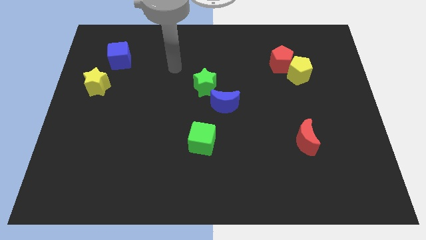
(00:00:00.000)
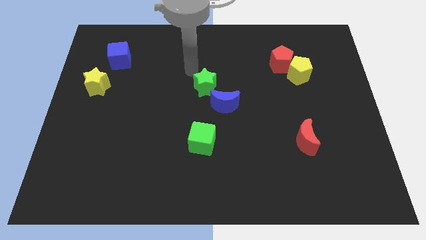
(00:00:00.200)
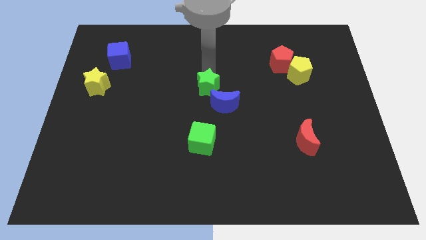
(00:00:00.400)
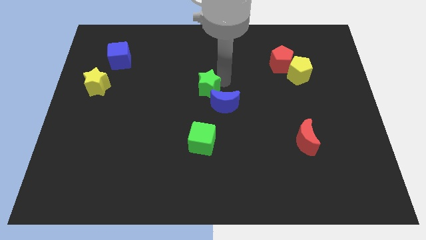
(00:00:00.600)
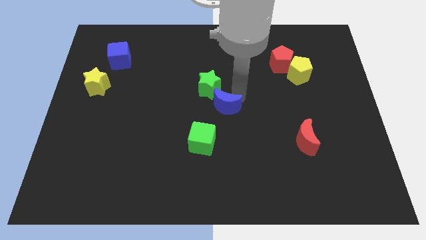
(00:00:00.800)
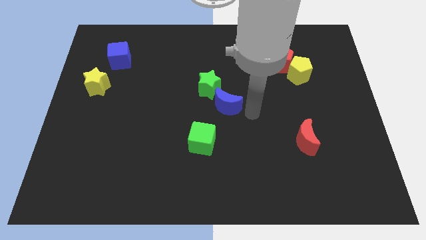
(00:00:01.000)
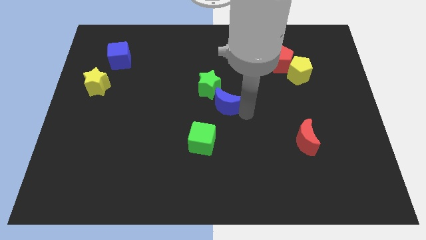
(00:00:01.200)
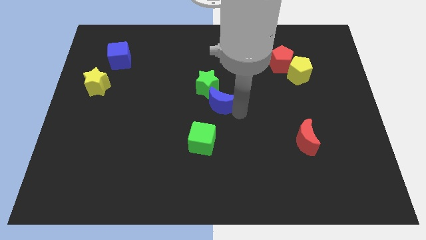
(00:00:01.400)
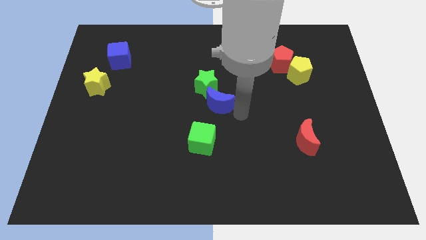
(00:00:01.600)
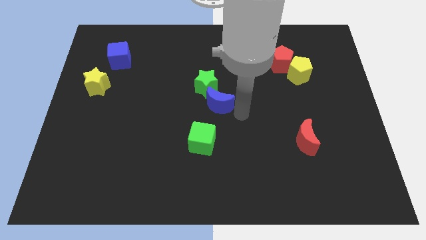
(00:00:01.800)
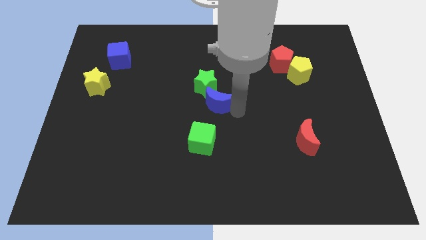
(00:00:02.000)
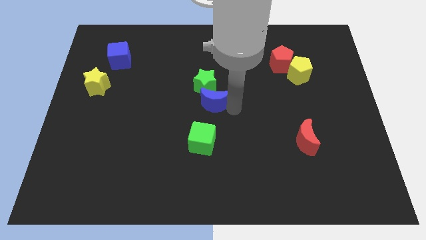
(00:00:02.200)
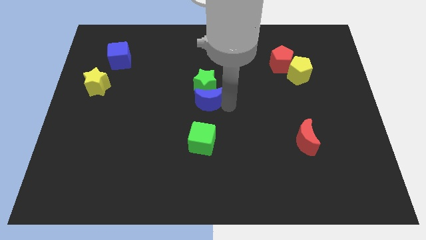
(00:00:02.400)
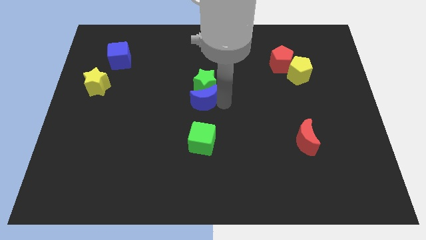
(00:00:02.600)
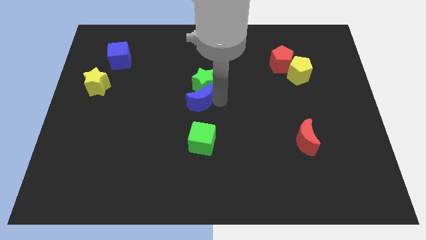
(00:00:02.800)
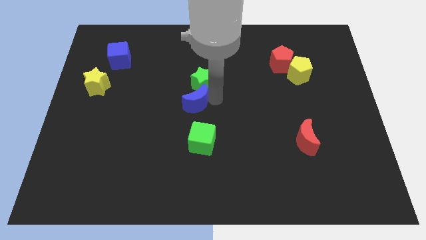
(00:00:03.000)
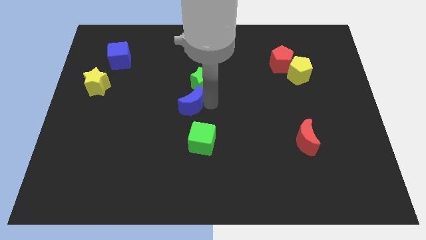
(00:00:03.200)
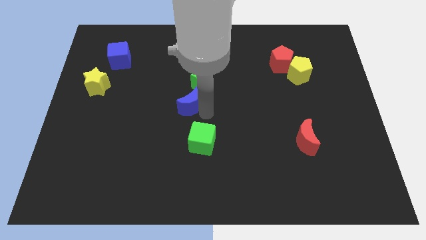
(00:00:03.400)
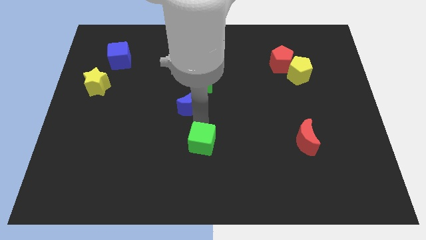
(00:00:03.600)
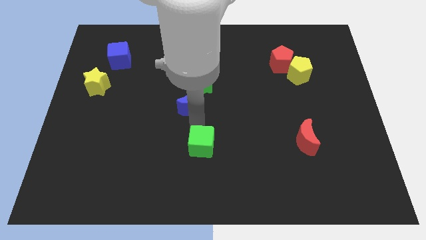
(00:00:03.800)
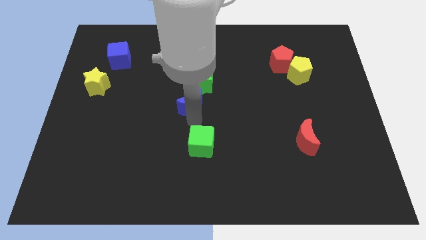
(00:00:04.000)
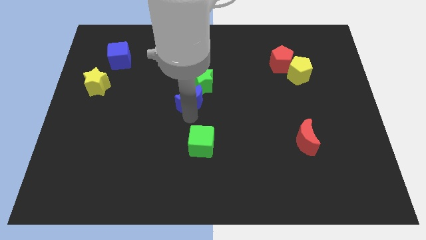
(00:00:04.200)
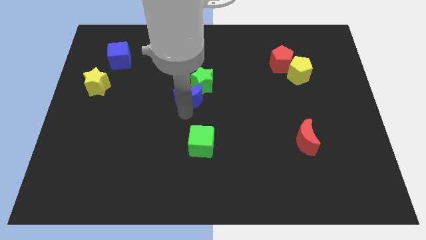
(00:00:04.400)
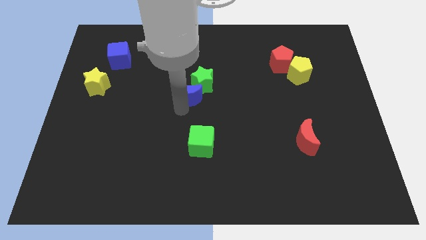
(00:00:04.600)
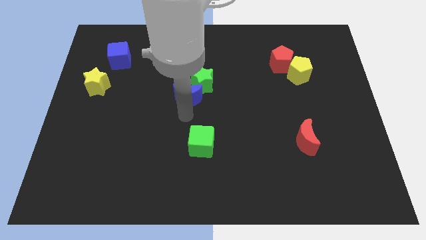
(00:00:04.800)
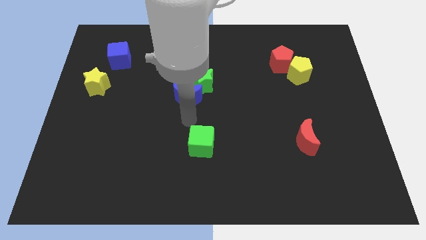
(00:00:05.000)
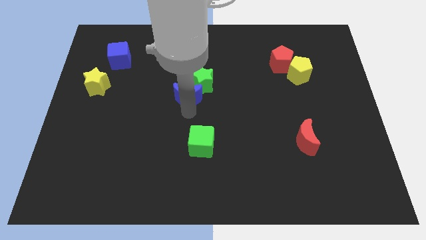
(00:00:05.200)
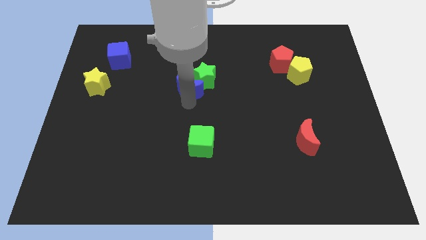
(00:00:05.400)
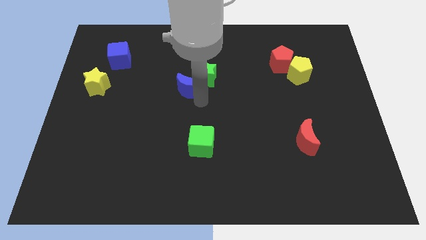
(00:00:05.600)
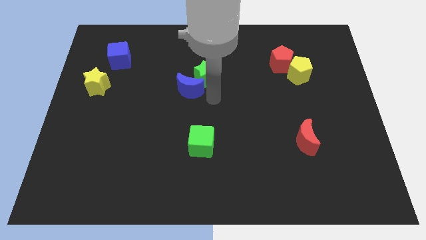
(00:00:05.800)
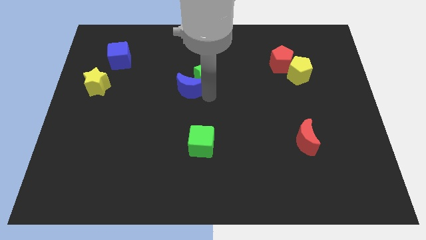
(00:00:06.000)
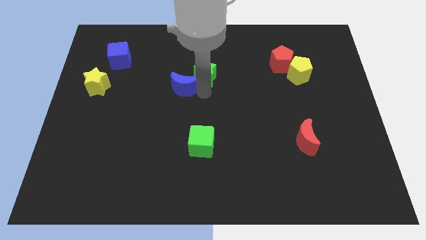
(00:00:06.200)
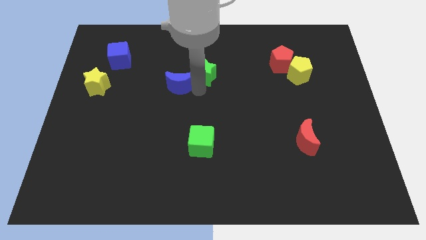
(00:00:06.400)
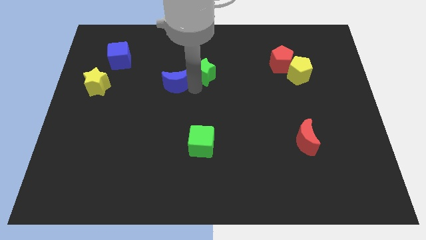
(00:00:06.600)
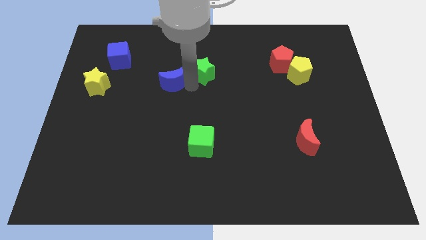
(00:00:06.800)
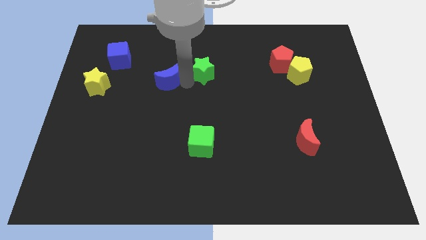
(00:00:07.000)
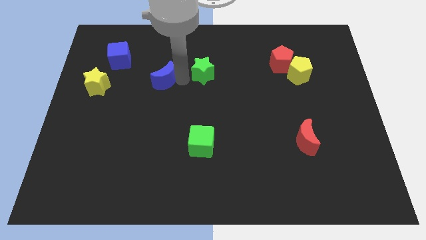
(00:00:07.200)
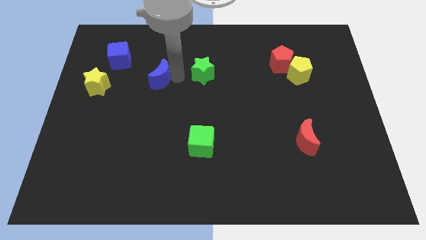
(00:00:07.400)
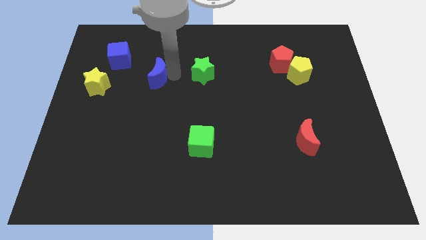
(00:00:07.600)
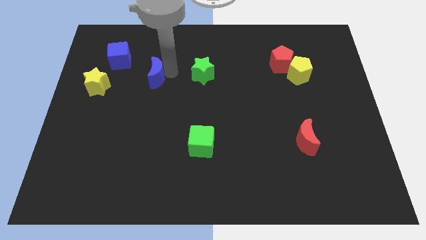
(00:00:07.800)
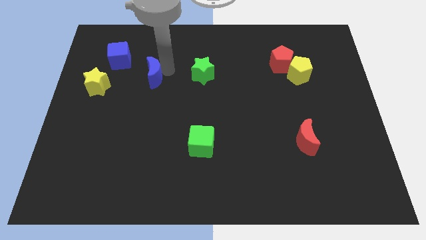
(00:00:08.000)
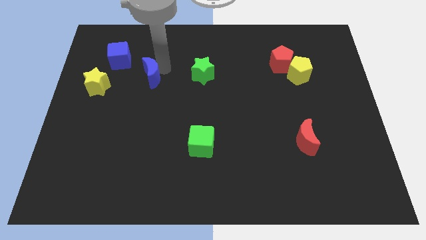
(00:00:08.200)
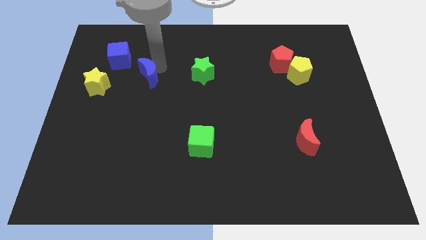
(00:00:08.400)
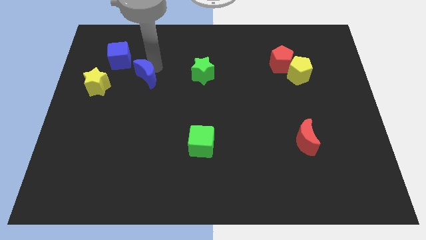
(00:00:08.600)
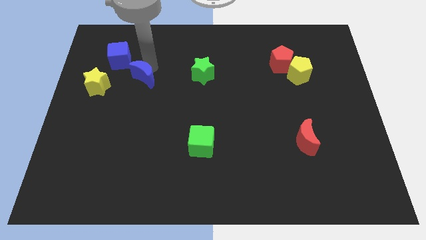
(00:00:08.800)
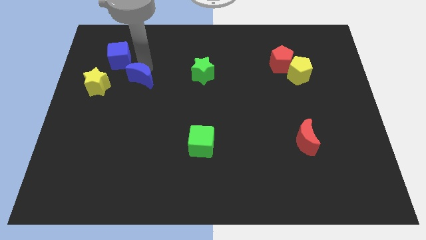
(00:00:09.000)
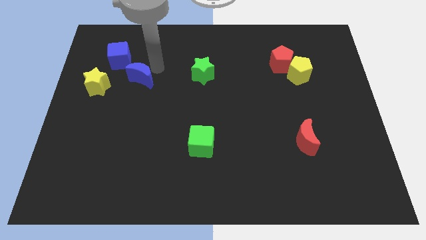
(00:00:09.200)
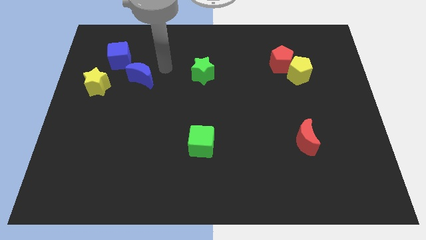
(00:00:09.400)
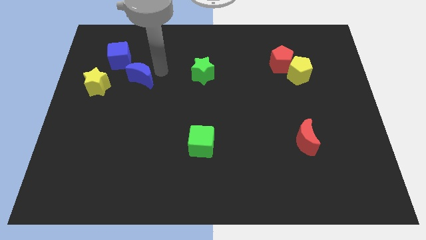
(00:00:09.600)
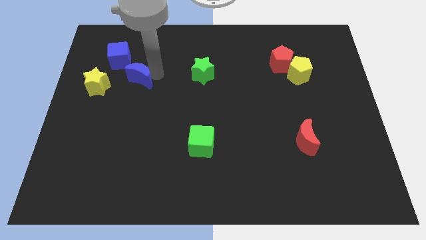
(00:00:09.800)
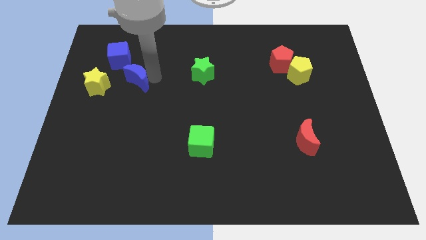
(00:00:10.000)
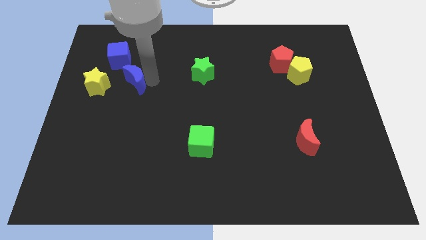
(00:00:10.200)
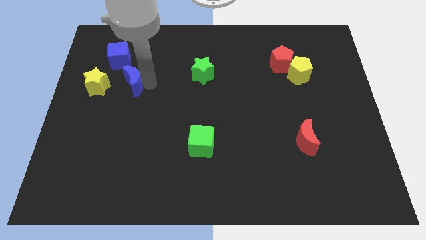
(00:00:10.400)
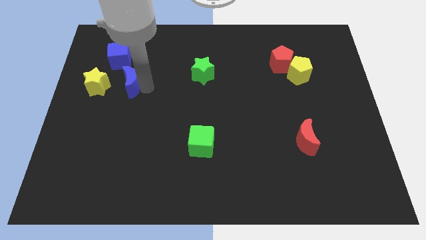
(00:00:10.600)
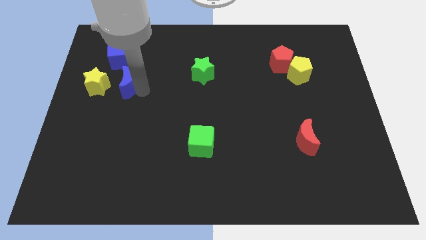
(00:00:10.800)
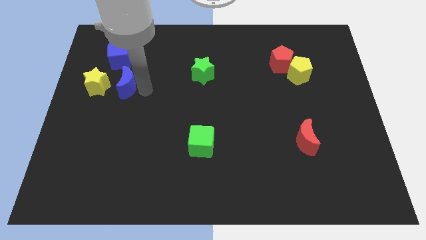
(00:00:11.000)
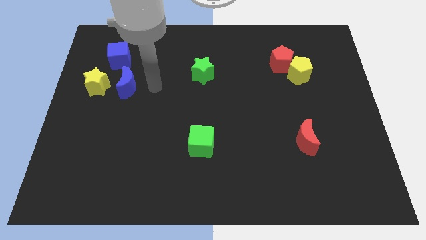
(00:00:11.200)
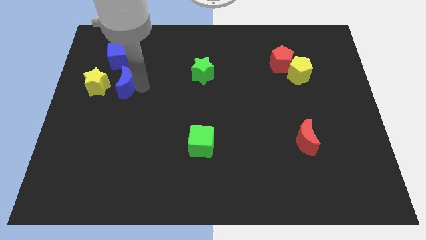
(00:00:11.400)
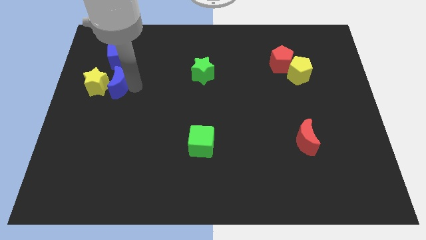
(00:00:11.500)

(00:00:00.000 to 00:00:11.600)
slide the blue moon towards the yellow star

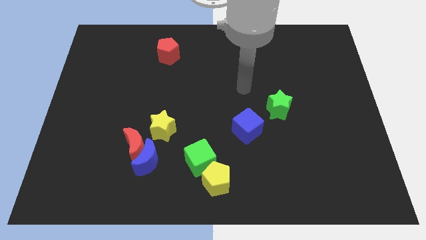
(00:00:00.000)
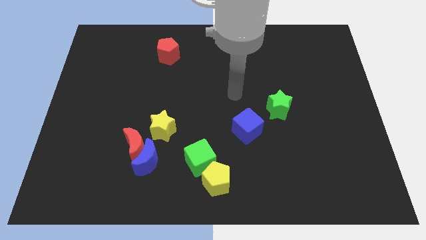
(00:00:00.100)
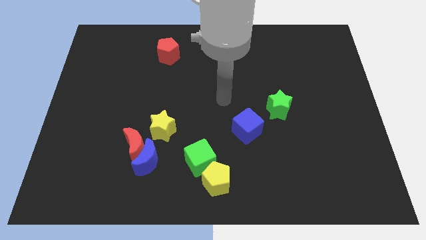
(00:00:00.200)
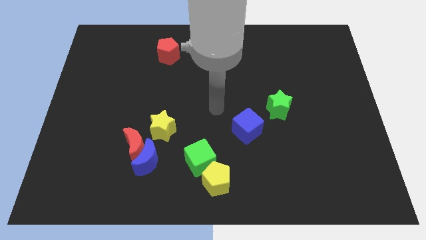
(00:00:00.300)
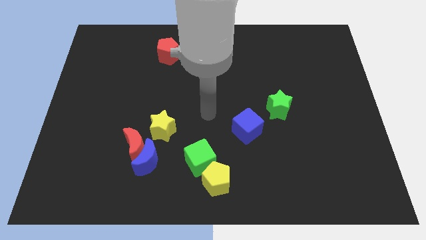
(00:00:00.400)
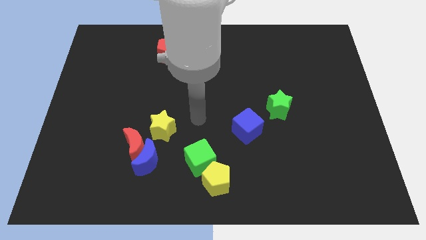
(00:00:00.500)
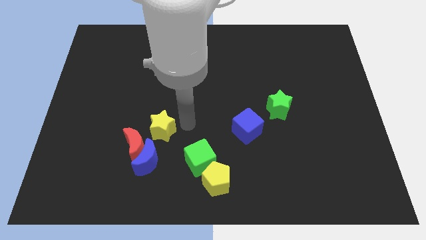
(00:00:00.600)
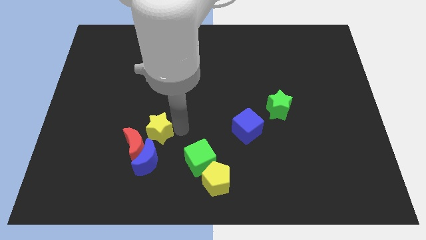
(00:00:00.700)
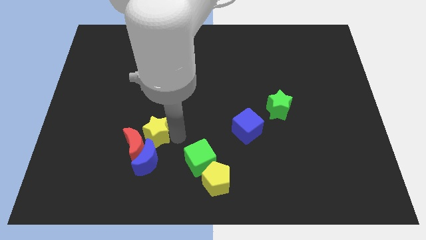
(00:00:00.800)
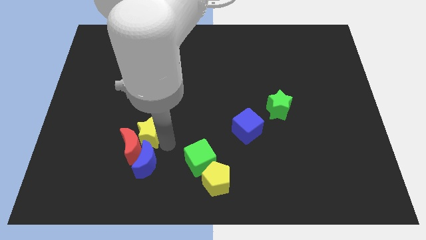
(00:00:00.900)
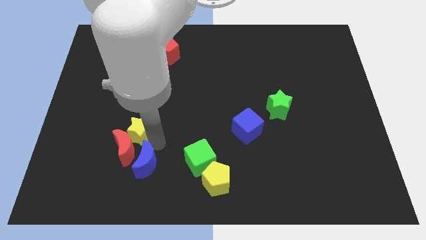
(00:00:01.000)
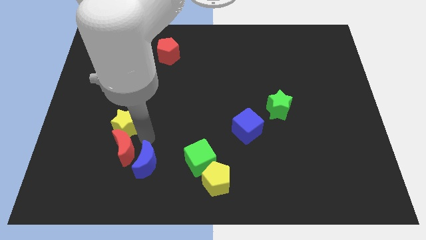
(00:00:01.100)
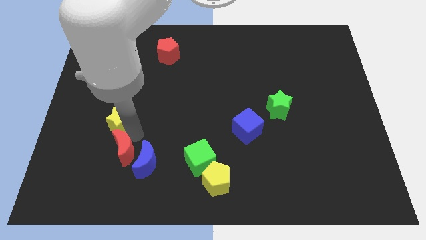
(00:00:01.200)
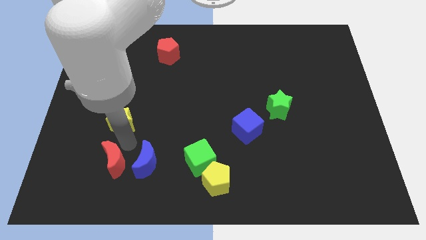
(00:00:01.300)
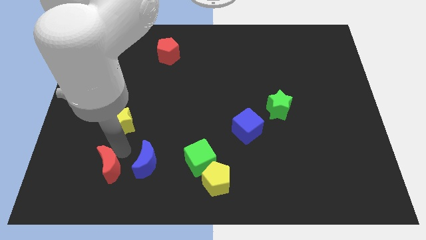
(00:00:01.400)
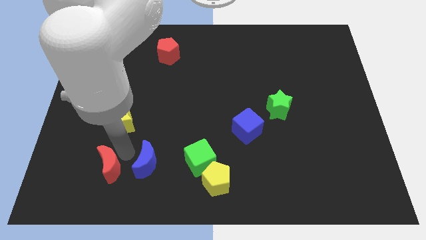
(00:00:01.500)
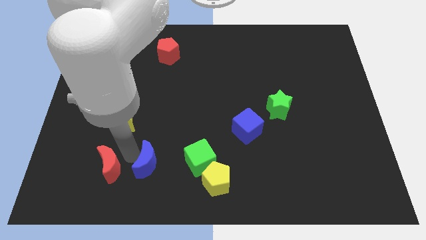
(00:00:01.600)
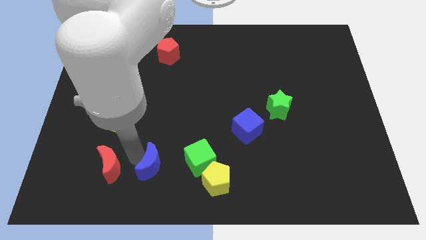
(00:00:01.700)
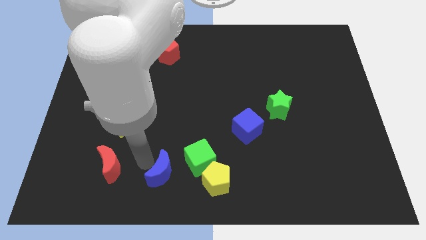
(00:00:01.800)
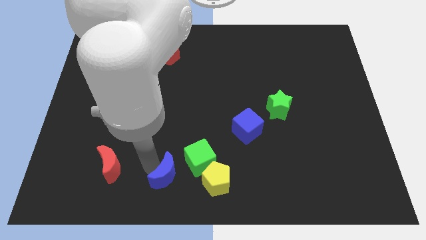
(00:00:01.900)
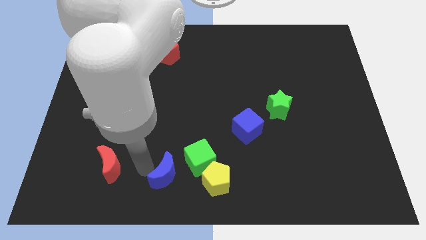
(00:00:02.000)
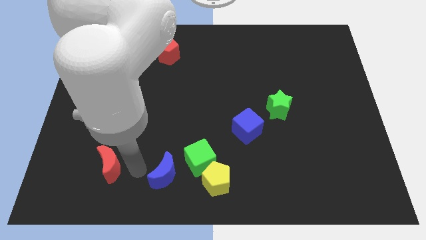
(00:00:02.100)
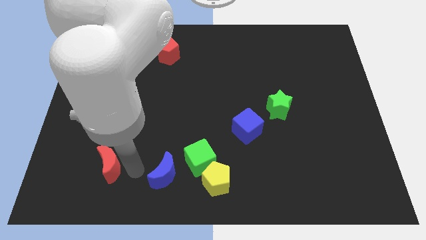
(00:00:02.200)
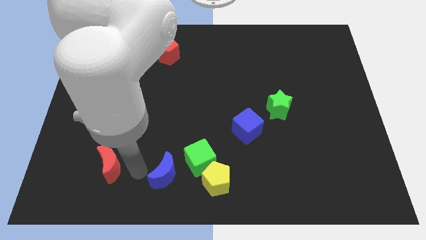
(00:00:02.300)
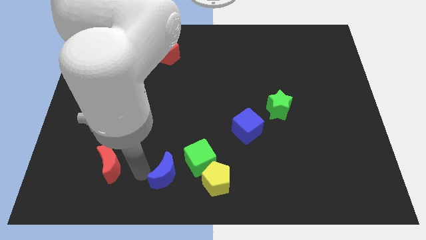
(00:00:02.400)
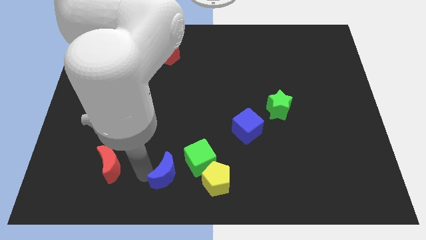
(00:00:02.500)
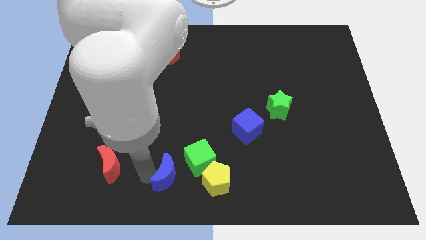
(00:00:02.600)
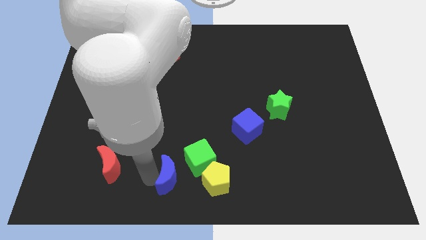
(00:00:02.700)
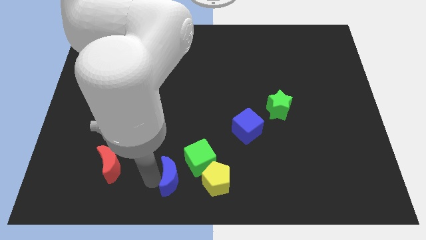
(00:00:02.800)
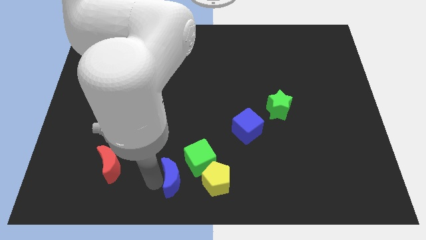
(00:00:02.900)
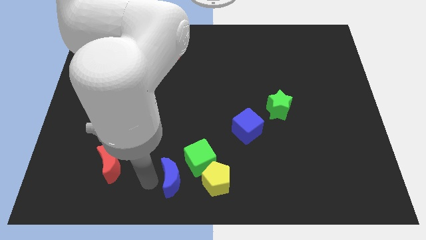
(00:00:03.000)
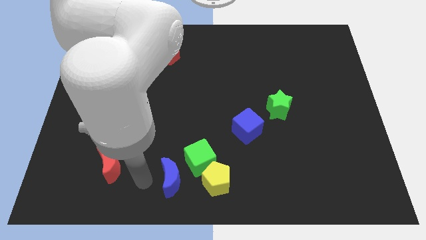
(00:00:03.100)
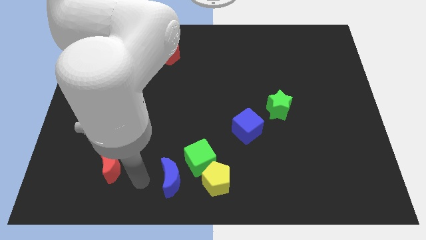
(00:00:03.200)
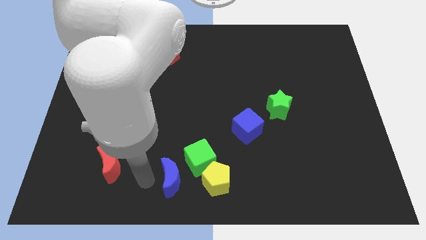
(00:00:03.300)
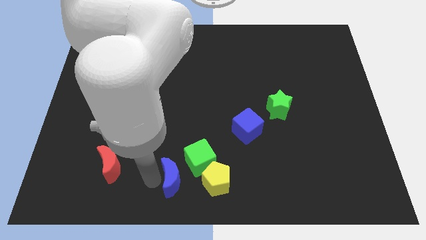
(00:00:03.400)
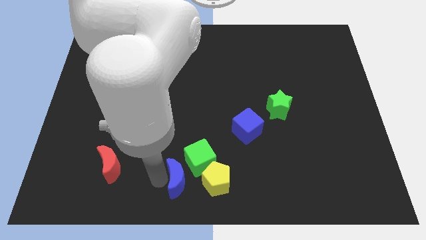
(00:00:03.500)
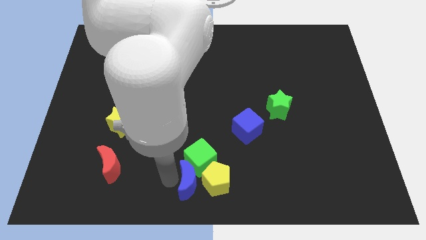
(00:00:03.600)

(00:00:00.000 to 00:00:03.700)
put the blue moon towards the yellow pentagon
